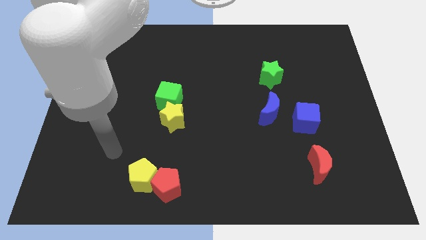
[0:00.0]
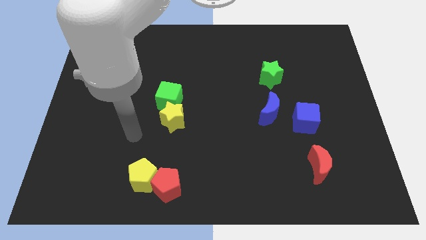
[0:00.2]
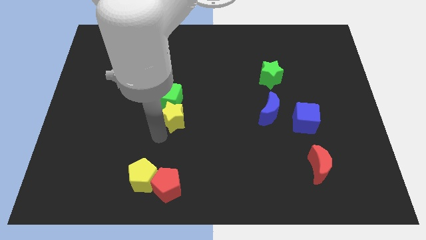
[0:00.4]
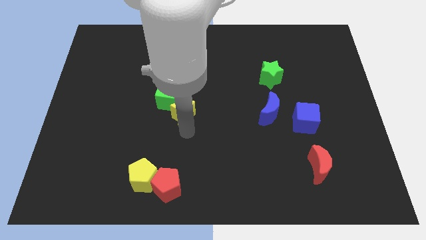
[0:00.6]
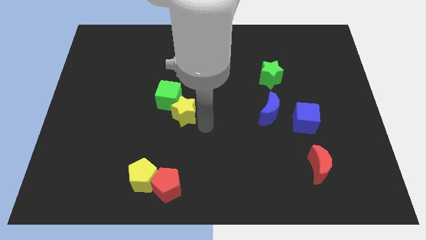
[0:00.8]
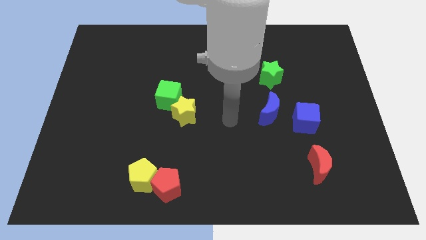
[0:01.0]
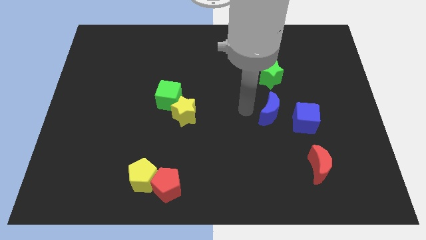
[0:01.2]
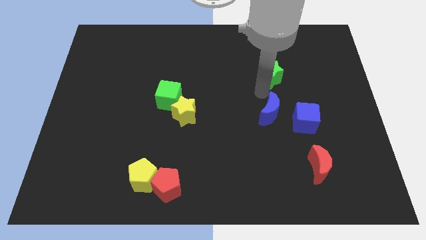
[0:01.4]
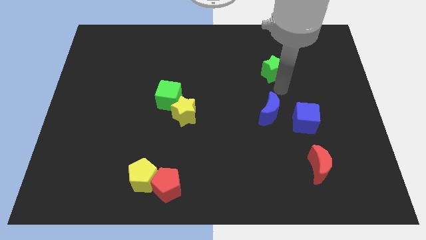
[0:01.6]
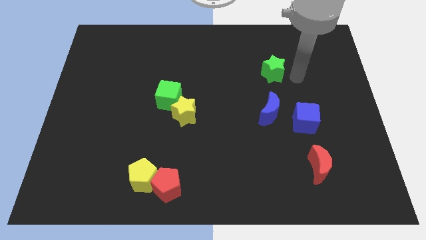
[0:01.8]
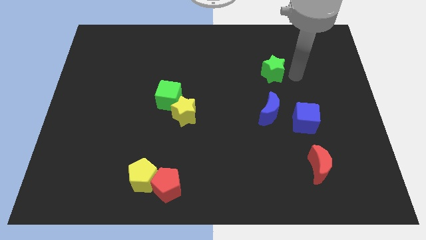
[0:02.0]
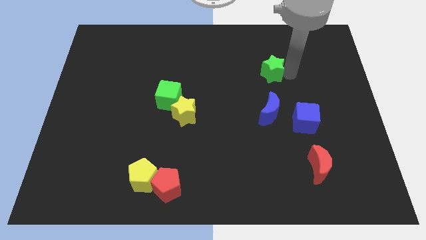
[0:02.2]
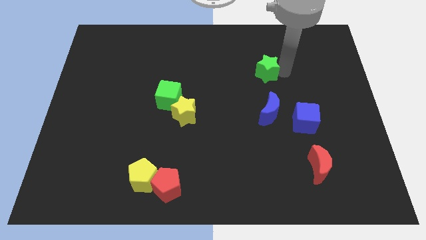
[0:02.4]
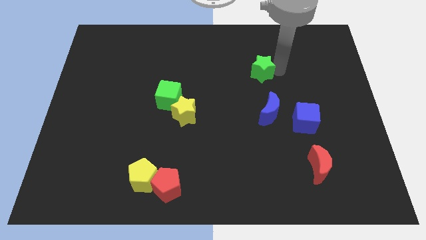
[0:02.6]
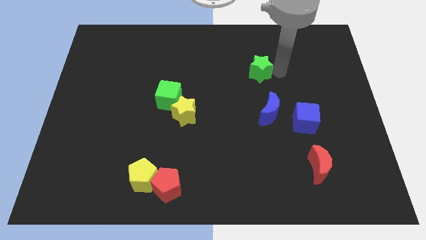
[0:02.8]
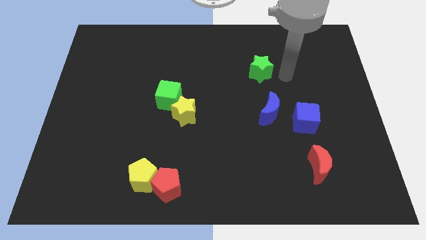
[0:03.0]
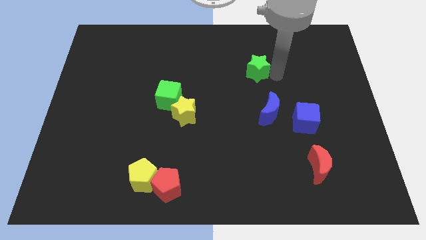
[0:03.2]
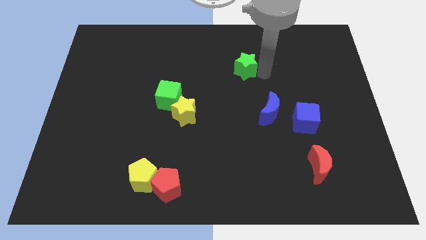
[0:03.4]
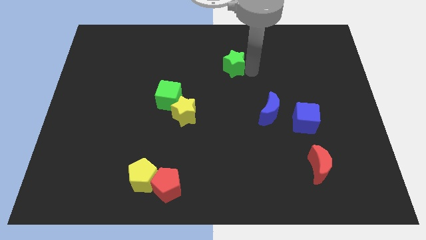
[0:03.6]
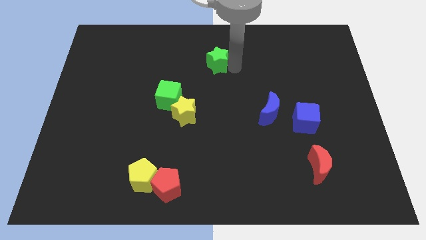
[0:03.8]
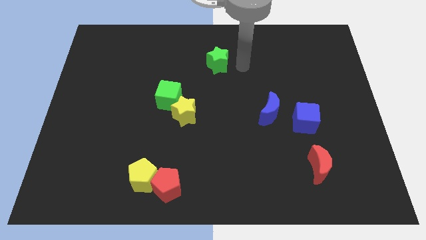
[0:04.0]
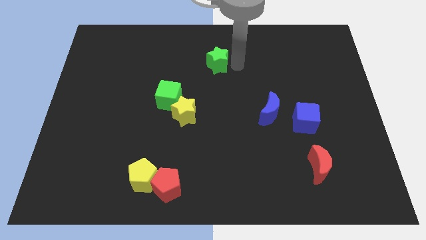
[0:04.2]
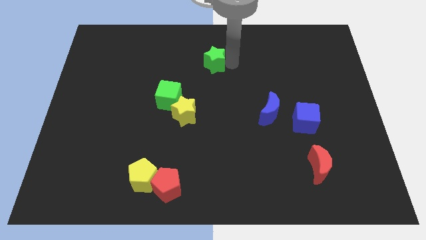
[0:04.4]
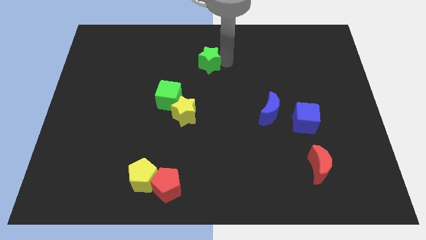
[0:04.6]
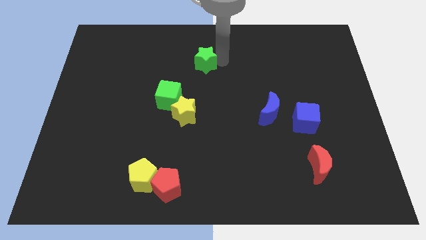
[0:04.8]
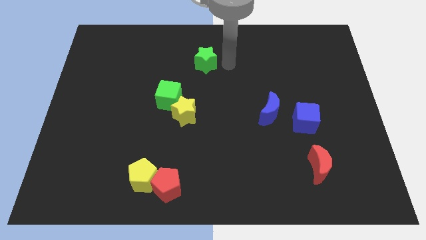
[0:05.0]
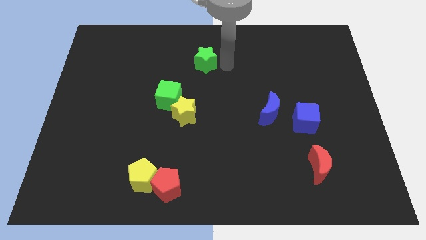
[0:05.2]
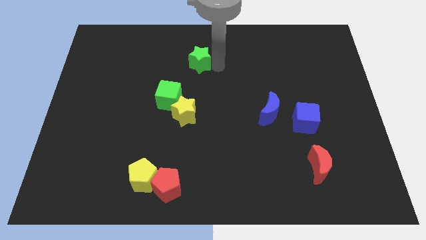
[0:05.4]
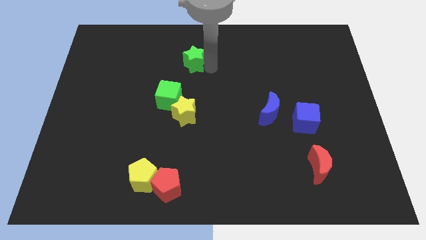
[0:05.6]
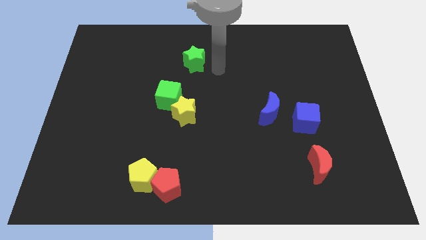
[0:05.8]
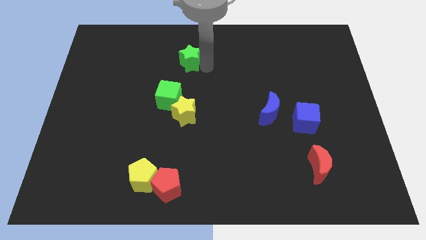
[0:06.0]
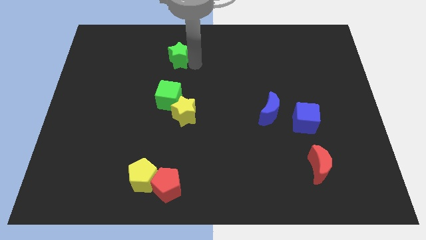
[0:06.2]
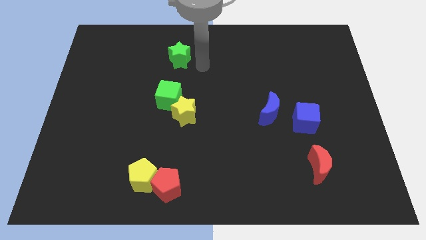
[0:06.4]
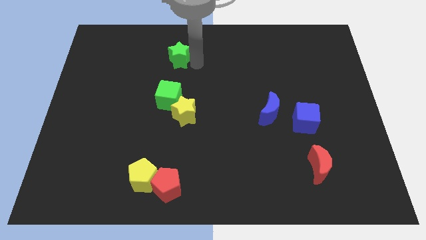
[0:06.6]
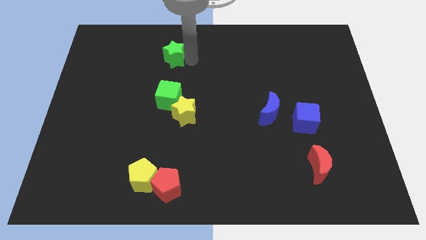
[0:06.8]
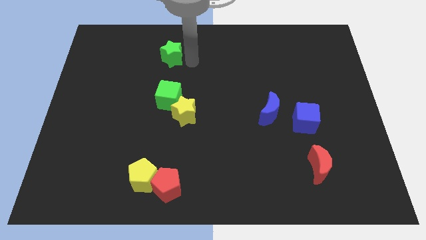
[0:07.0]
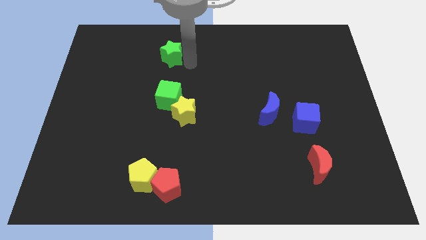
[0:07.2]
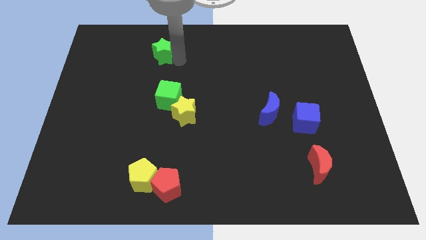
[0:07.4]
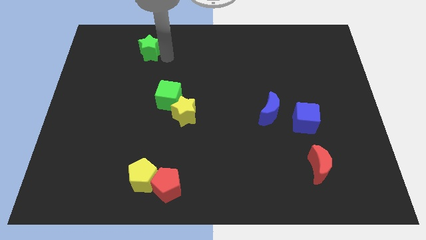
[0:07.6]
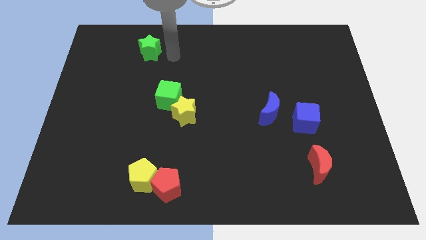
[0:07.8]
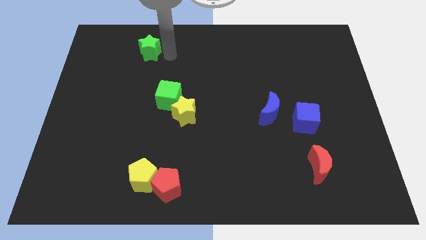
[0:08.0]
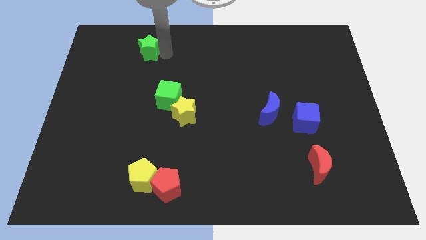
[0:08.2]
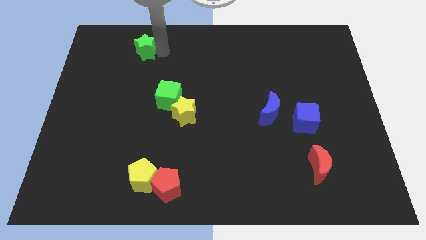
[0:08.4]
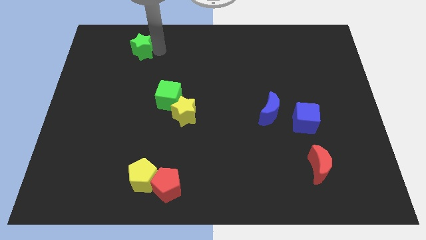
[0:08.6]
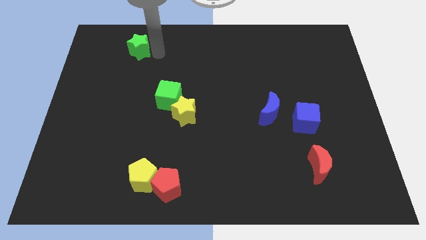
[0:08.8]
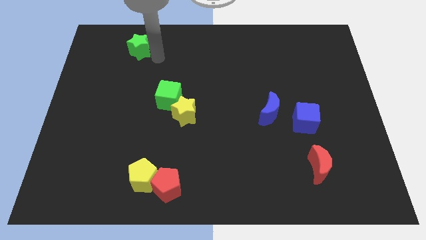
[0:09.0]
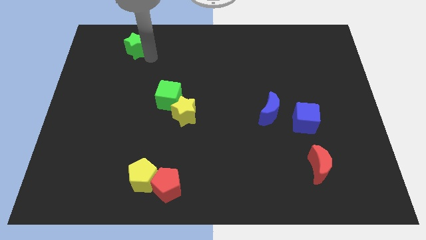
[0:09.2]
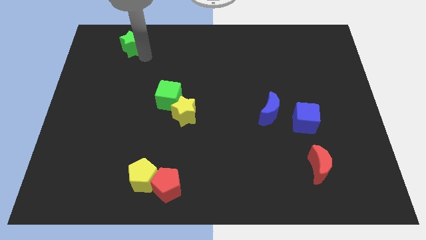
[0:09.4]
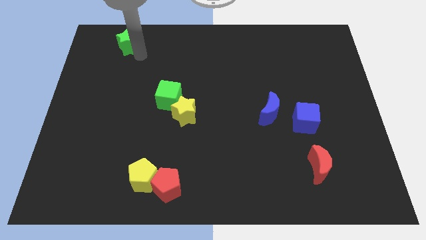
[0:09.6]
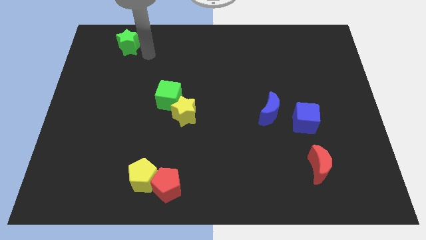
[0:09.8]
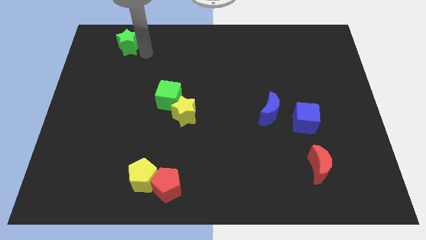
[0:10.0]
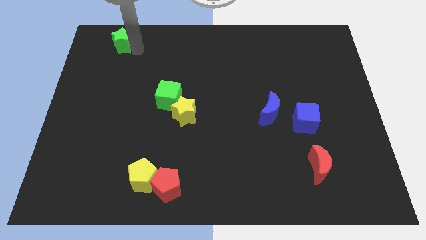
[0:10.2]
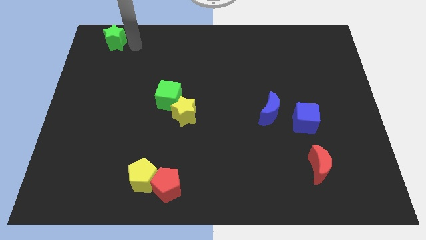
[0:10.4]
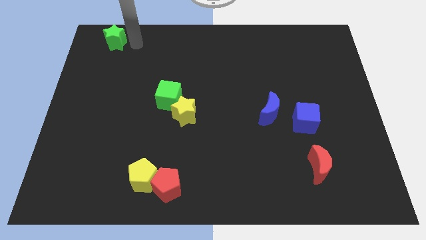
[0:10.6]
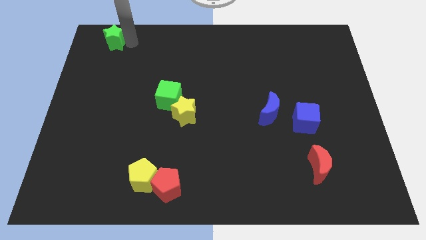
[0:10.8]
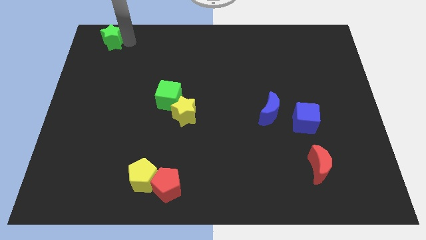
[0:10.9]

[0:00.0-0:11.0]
push the green star to the top left of the board
